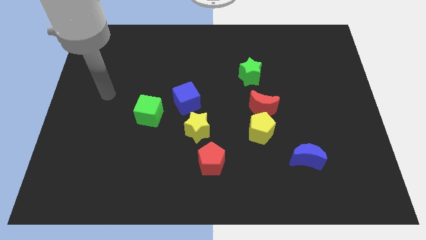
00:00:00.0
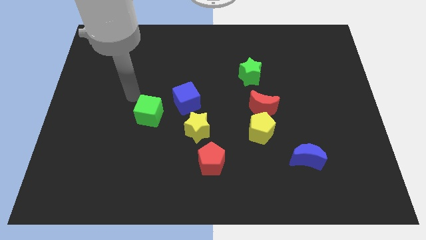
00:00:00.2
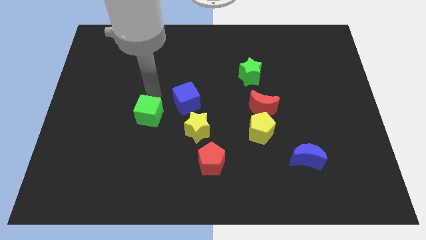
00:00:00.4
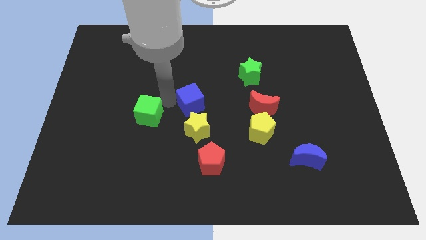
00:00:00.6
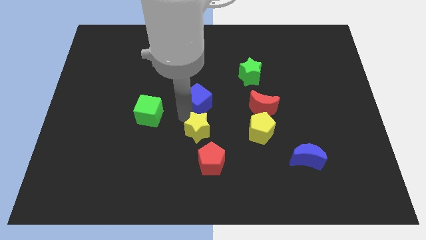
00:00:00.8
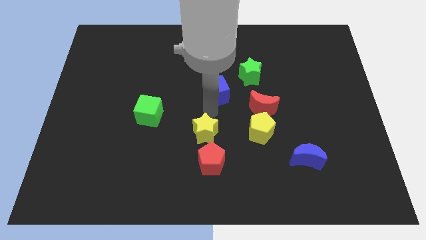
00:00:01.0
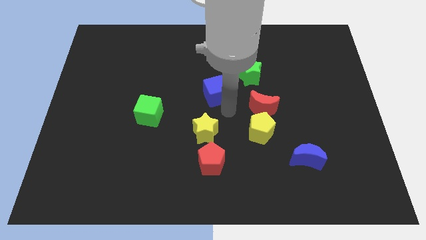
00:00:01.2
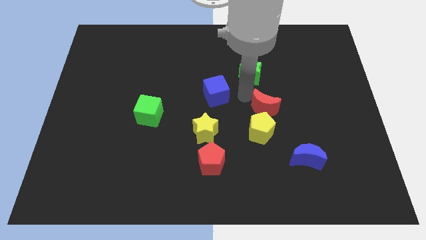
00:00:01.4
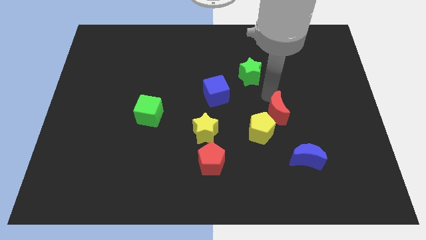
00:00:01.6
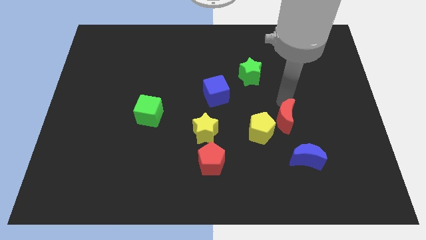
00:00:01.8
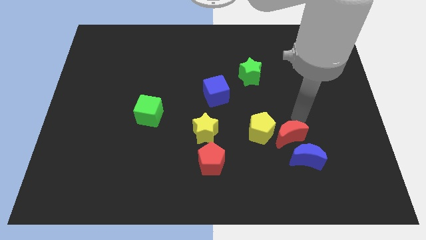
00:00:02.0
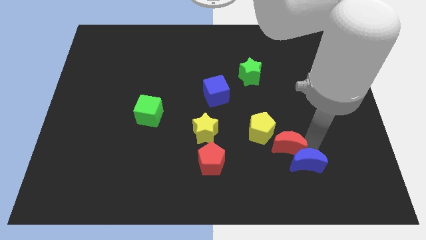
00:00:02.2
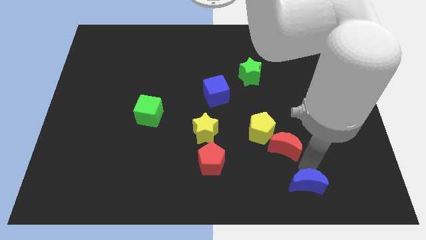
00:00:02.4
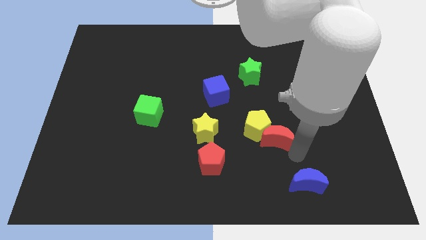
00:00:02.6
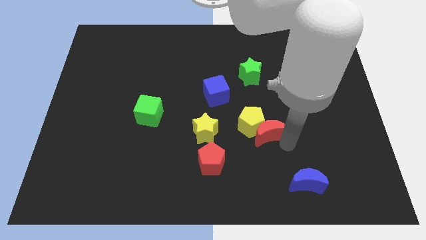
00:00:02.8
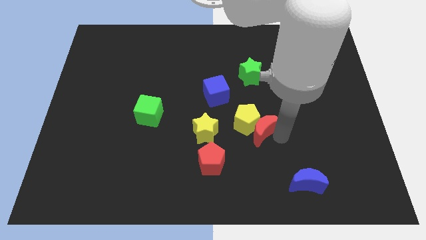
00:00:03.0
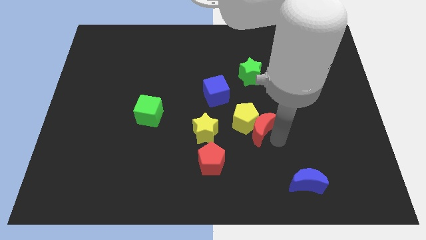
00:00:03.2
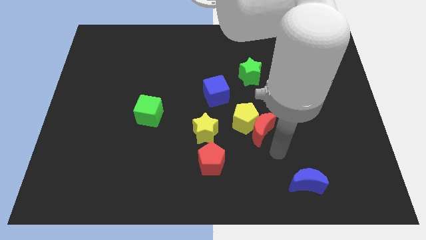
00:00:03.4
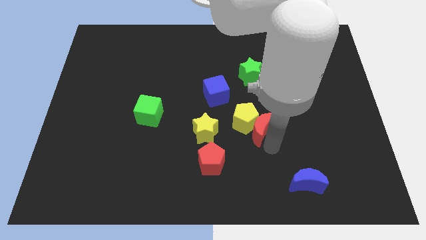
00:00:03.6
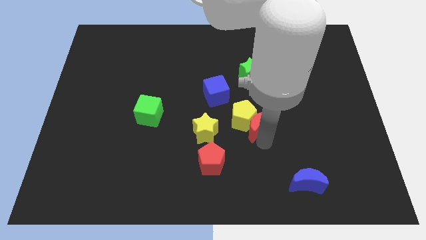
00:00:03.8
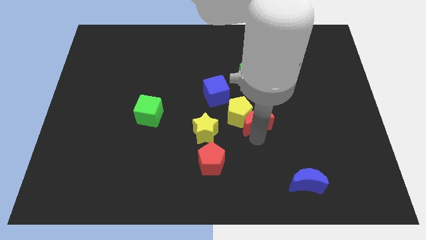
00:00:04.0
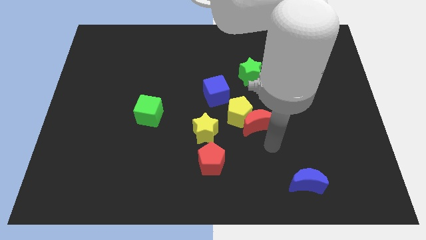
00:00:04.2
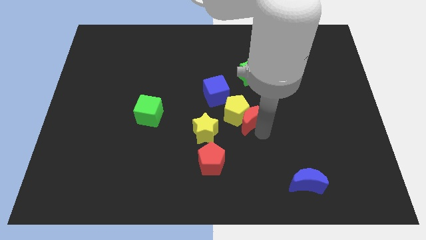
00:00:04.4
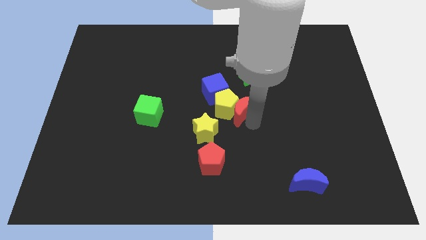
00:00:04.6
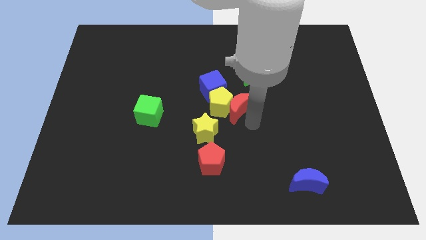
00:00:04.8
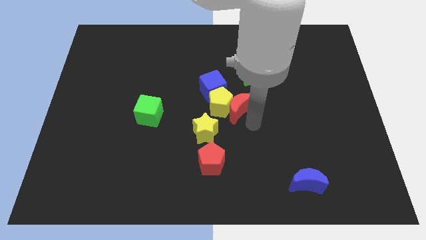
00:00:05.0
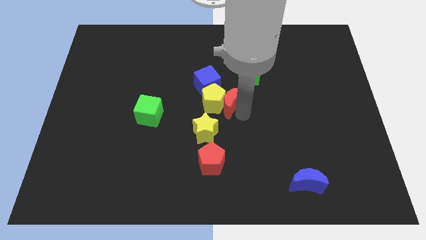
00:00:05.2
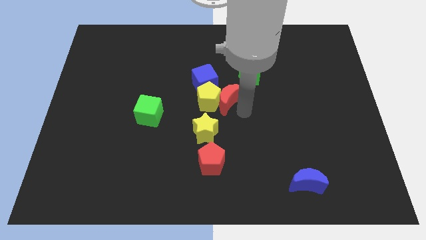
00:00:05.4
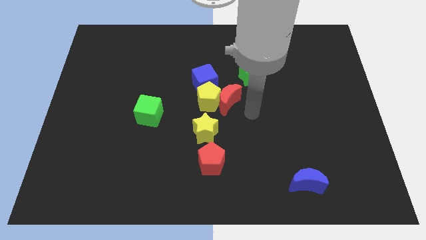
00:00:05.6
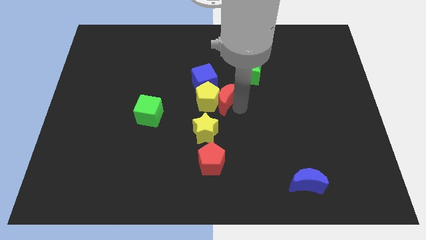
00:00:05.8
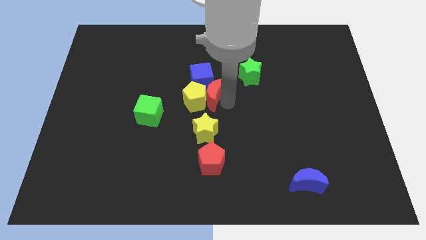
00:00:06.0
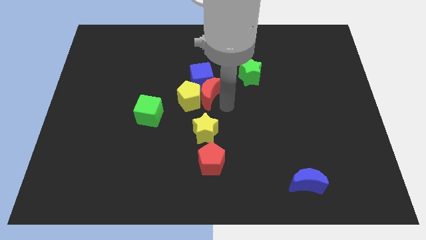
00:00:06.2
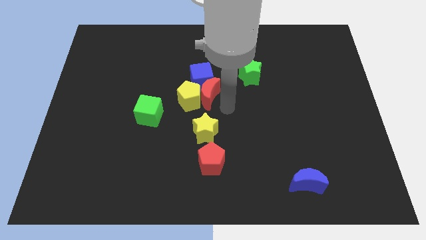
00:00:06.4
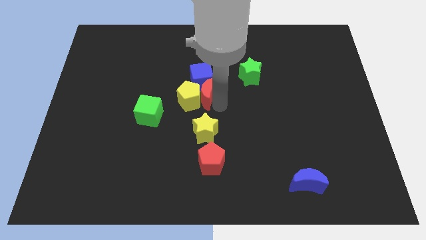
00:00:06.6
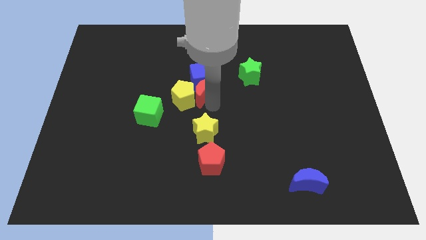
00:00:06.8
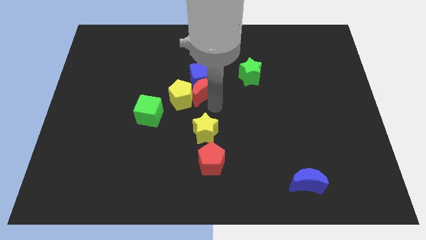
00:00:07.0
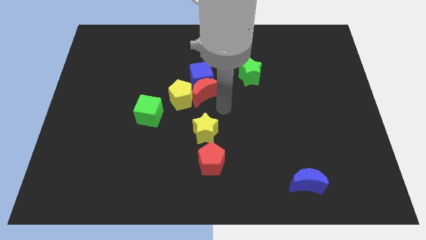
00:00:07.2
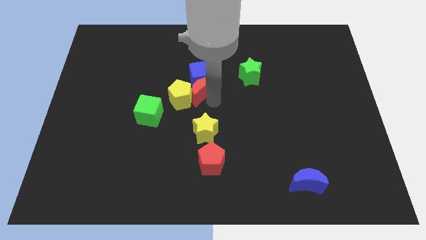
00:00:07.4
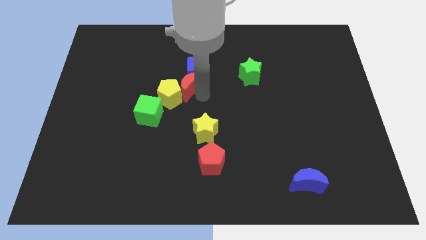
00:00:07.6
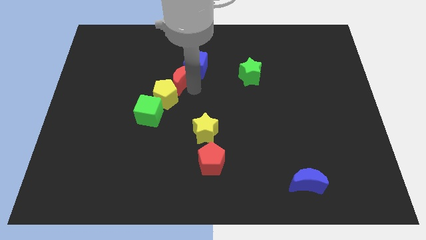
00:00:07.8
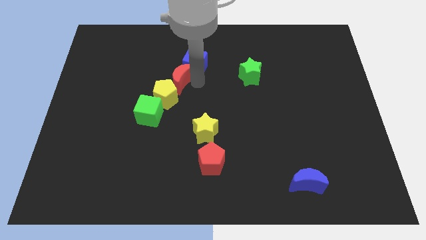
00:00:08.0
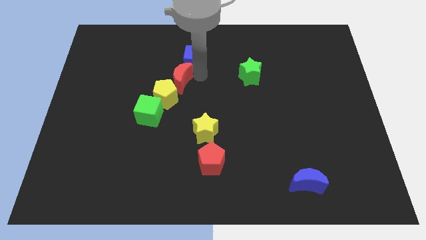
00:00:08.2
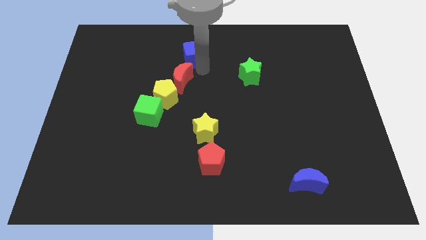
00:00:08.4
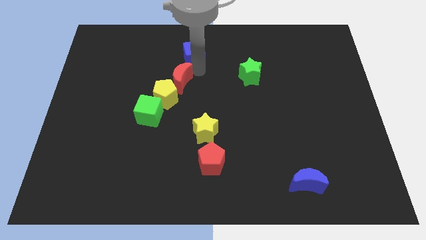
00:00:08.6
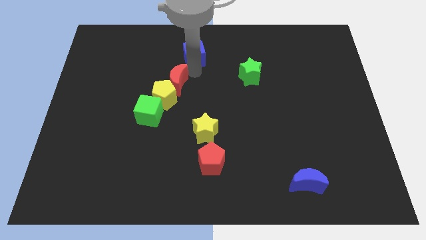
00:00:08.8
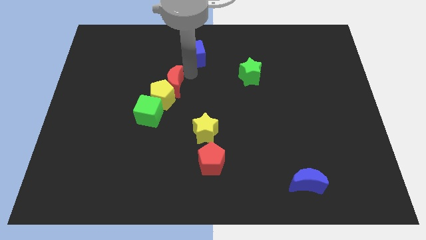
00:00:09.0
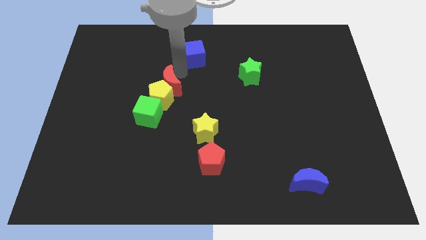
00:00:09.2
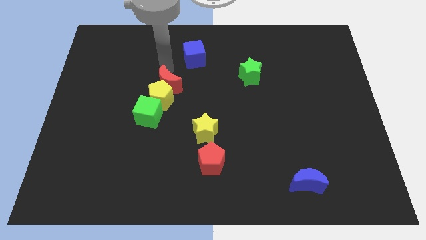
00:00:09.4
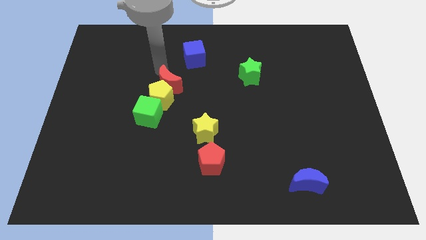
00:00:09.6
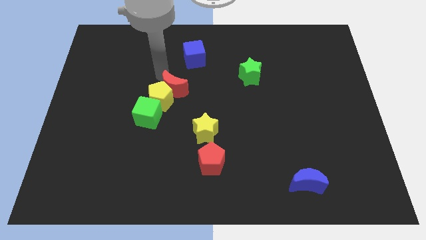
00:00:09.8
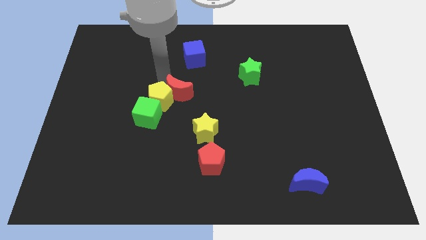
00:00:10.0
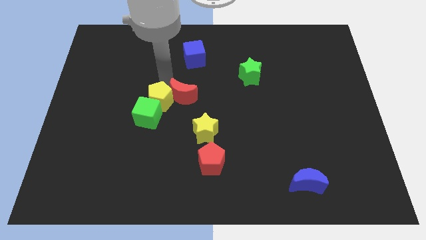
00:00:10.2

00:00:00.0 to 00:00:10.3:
put the red moon to the top left of the yellow star

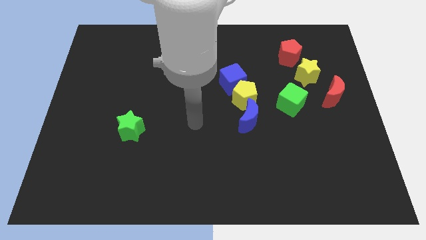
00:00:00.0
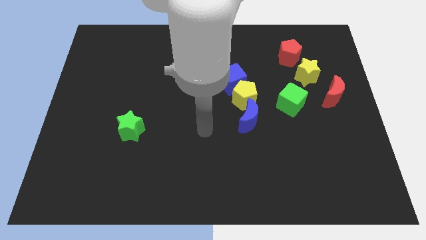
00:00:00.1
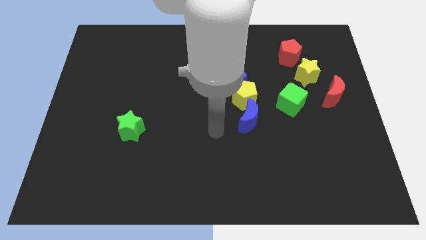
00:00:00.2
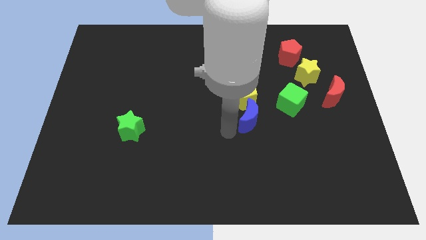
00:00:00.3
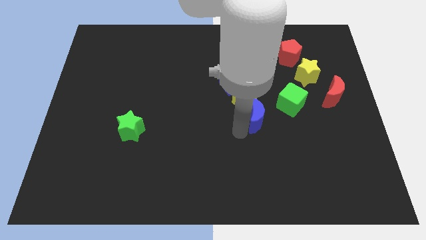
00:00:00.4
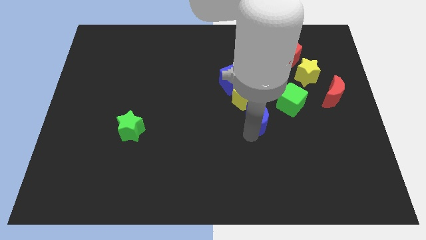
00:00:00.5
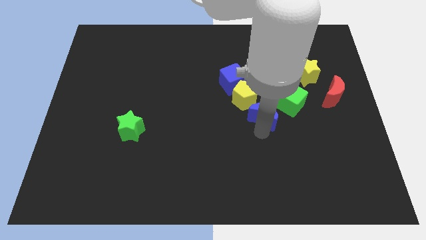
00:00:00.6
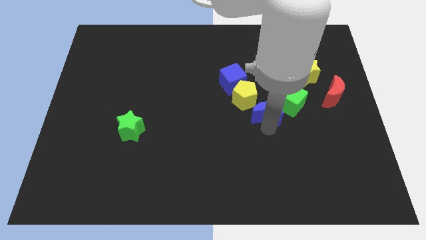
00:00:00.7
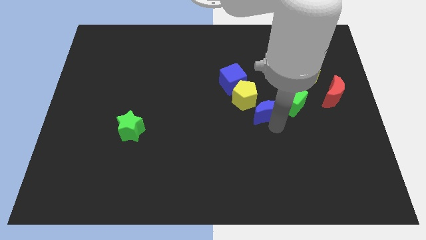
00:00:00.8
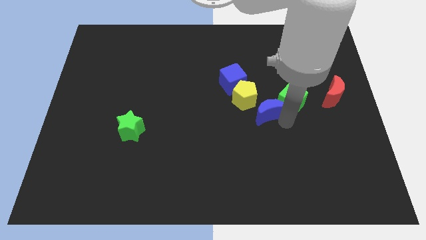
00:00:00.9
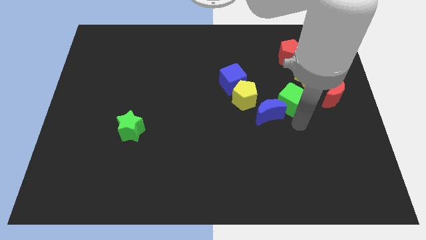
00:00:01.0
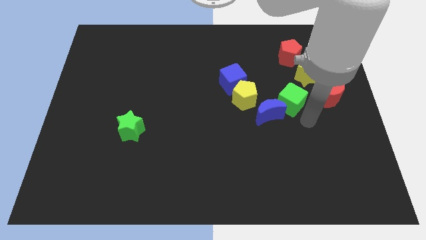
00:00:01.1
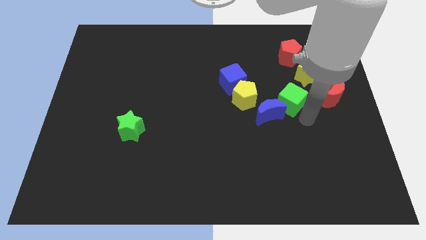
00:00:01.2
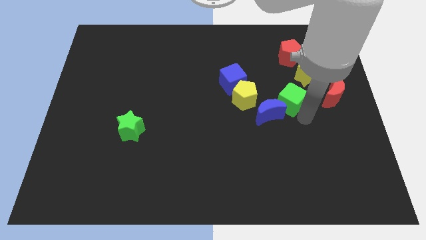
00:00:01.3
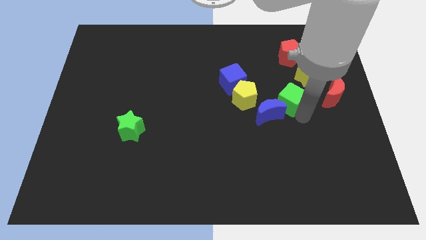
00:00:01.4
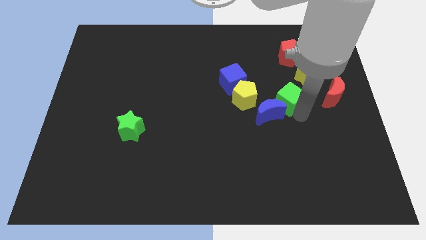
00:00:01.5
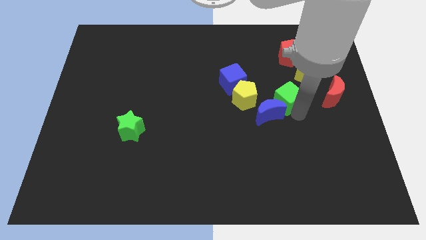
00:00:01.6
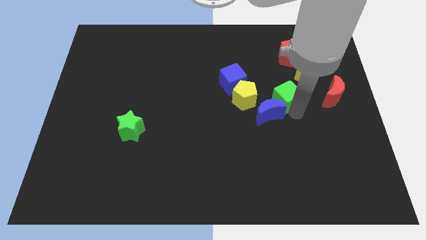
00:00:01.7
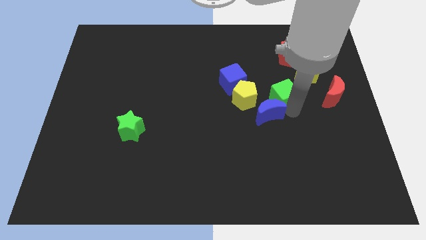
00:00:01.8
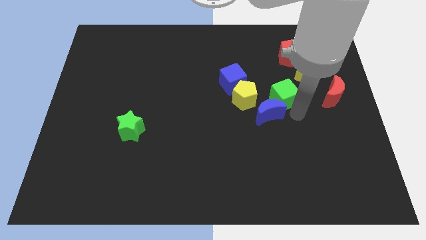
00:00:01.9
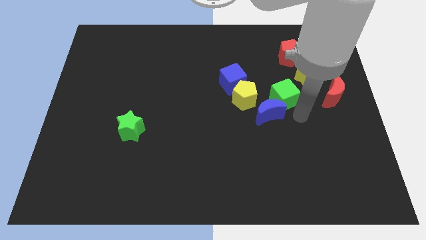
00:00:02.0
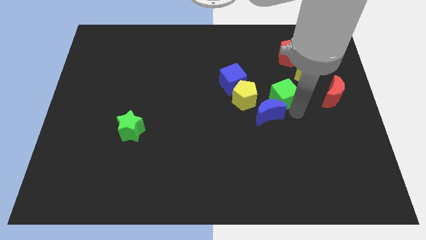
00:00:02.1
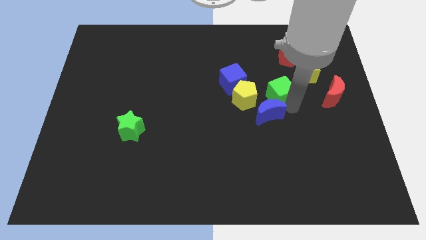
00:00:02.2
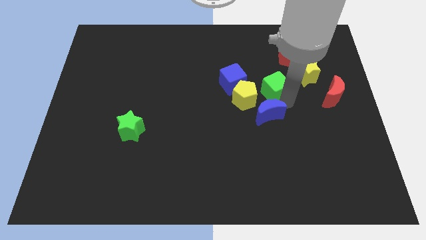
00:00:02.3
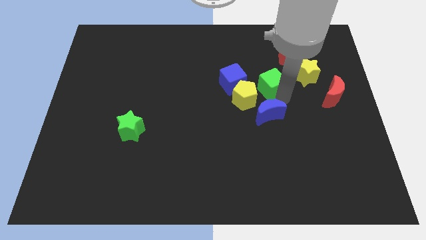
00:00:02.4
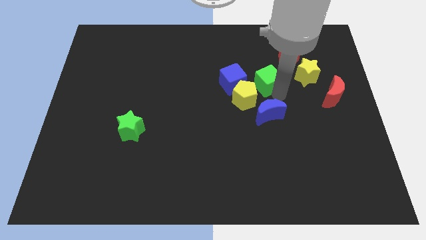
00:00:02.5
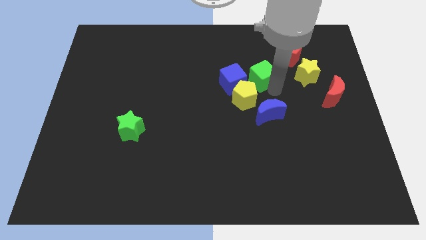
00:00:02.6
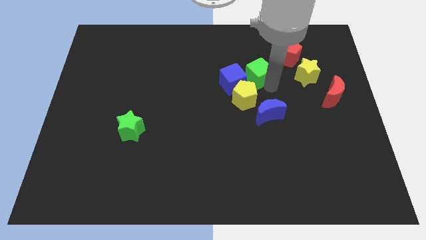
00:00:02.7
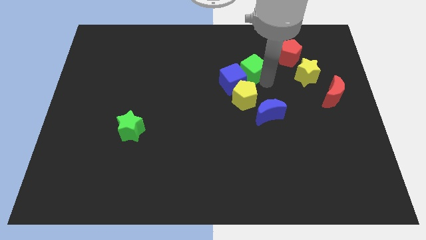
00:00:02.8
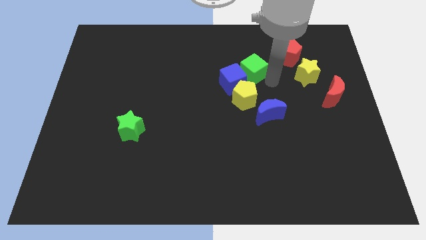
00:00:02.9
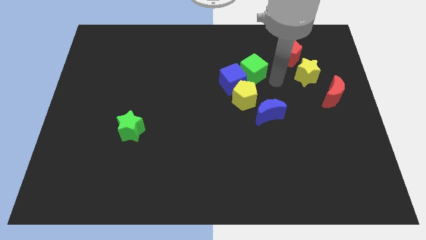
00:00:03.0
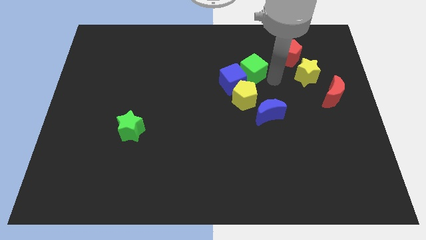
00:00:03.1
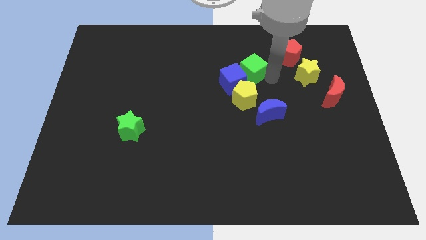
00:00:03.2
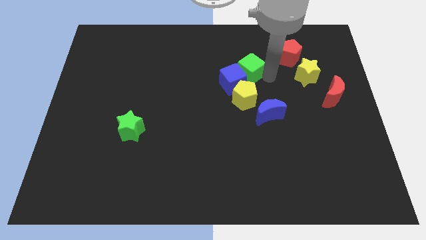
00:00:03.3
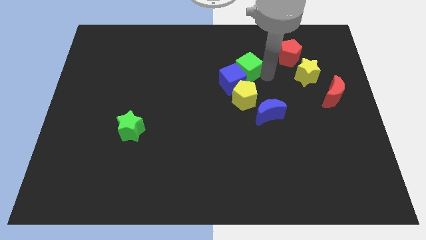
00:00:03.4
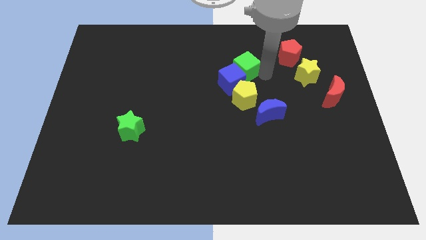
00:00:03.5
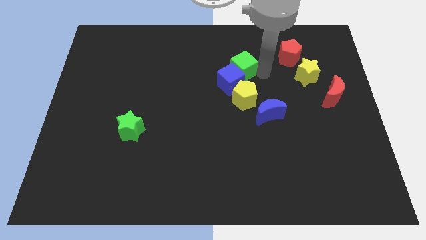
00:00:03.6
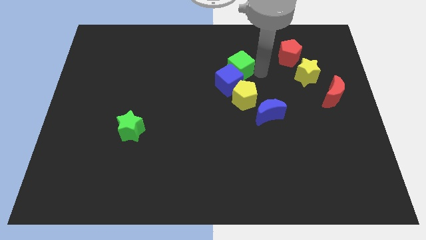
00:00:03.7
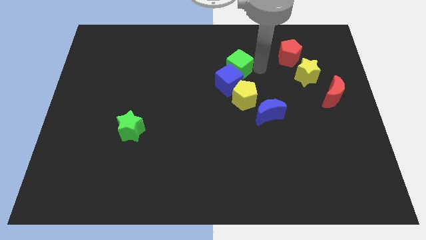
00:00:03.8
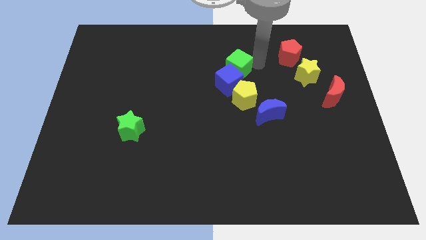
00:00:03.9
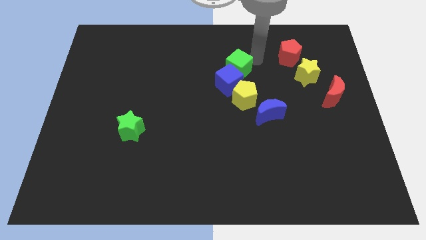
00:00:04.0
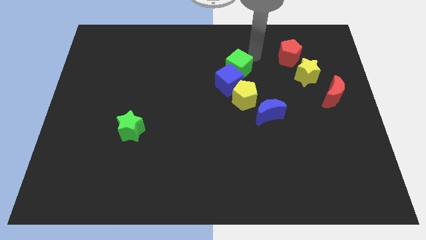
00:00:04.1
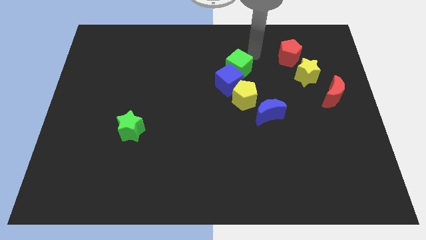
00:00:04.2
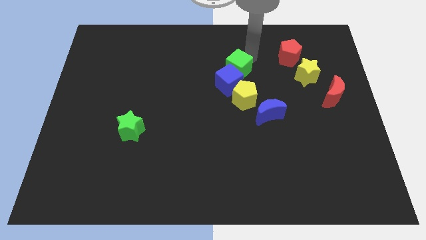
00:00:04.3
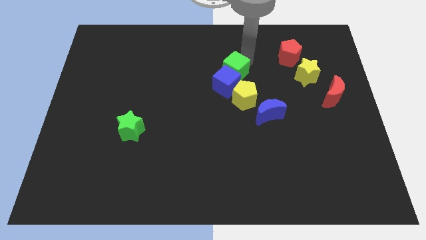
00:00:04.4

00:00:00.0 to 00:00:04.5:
move the green cube to the top left of the yellow pentagon
